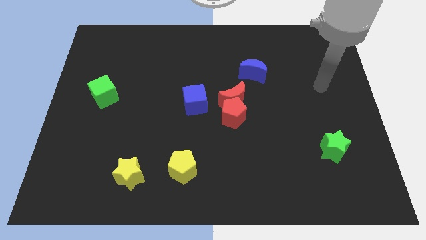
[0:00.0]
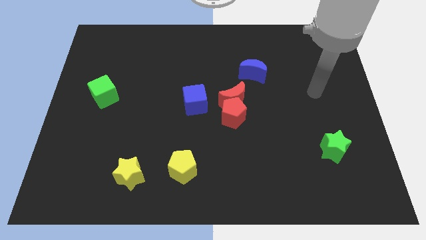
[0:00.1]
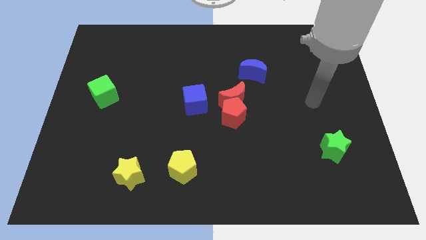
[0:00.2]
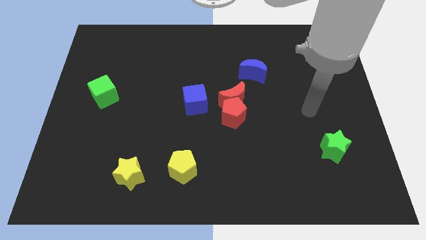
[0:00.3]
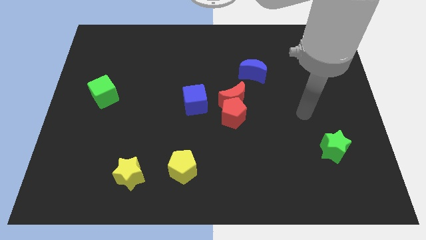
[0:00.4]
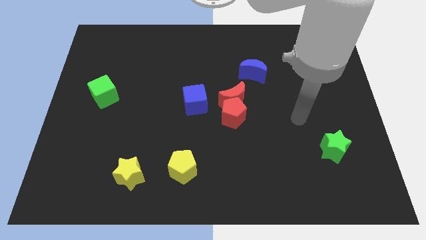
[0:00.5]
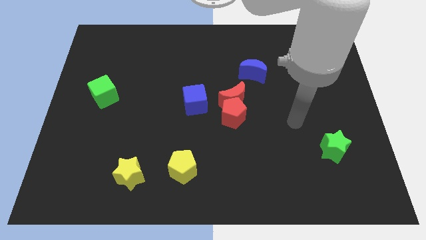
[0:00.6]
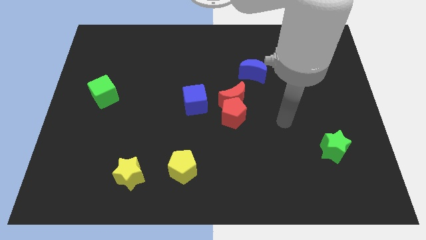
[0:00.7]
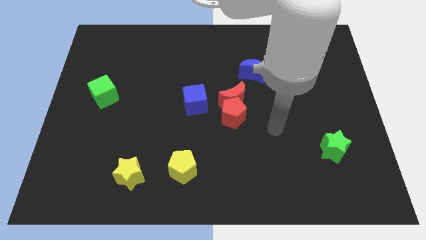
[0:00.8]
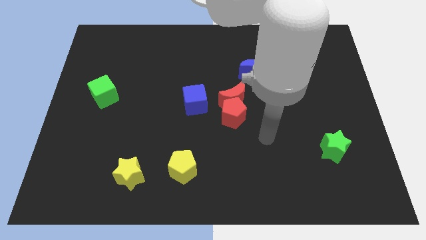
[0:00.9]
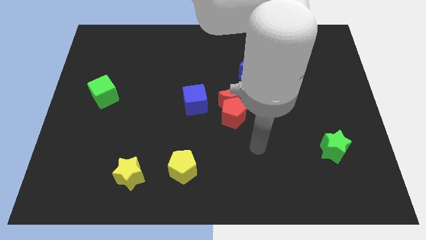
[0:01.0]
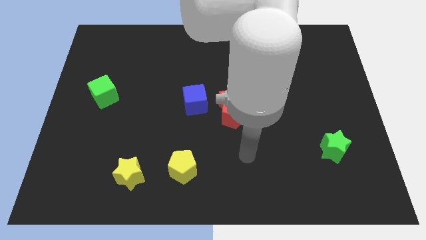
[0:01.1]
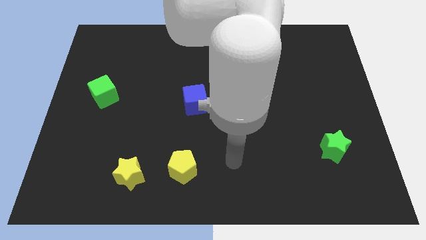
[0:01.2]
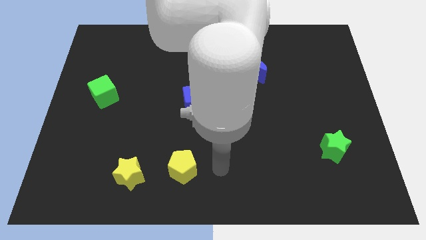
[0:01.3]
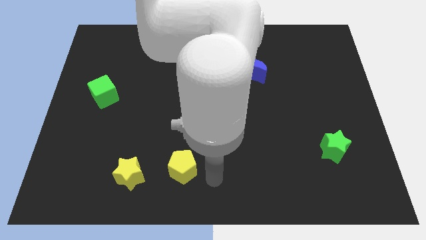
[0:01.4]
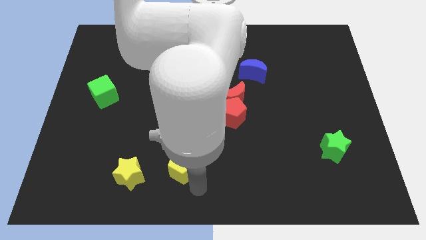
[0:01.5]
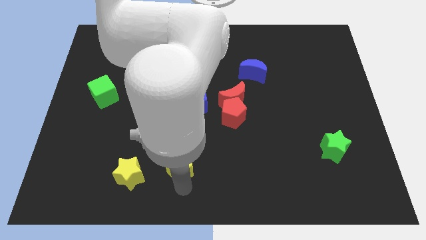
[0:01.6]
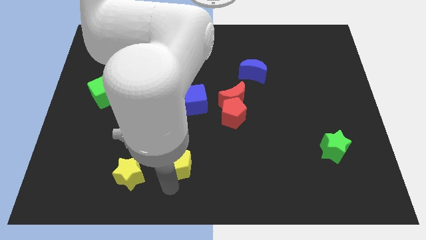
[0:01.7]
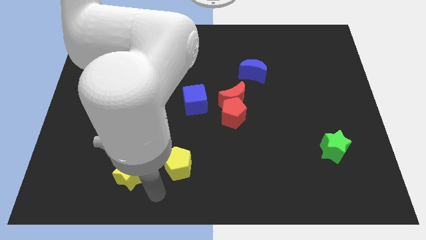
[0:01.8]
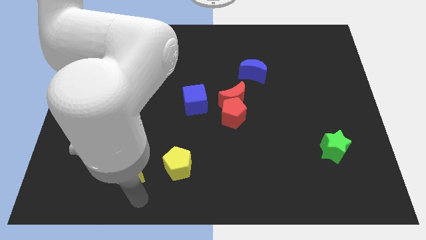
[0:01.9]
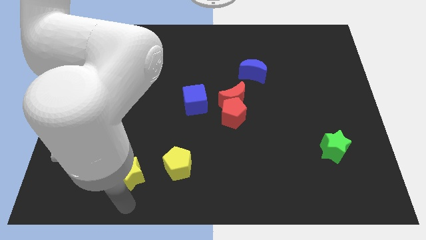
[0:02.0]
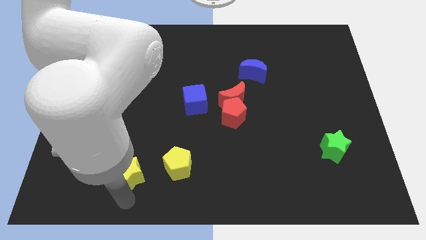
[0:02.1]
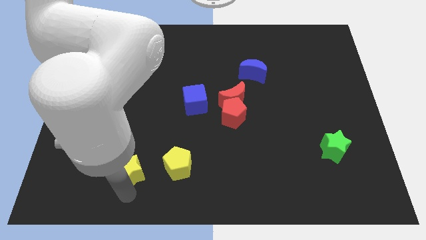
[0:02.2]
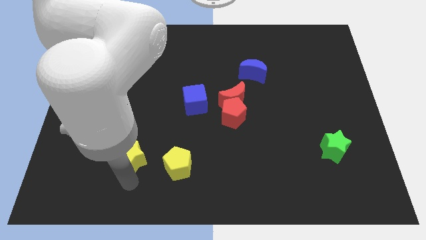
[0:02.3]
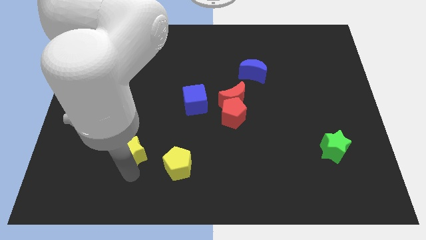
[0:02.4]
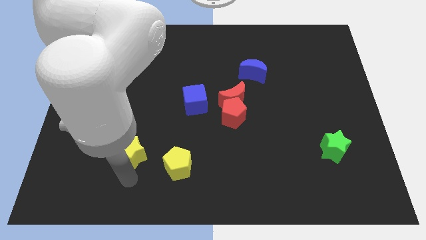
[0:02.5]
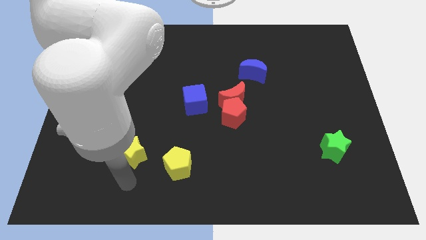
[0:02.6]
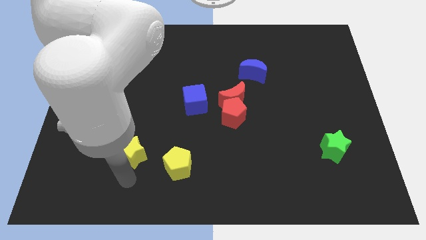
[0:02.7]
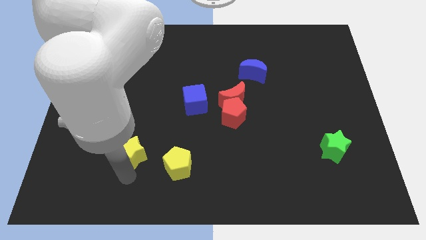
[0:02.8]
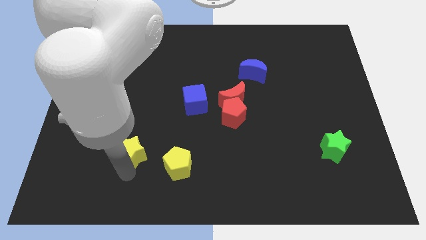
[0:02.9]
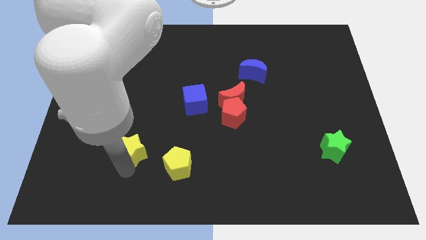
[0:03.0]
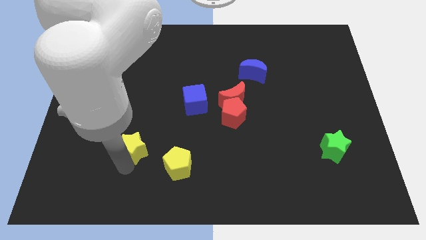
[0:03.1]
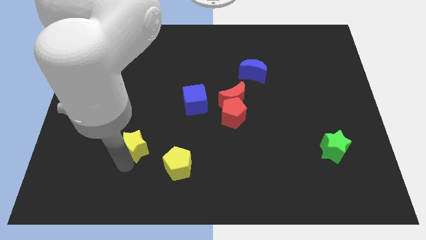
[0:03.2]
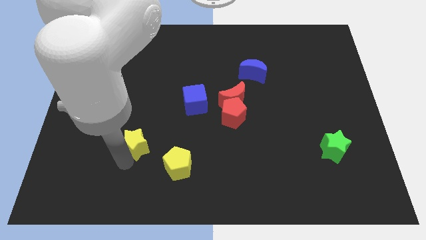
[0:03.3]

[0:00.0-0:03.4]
move the yellow star slightly upwards

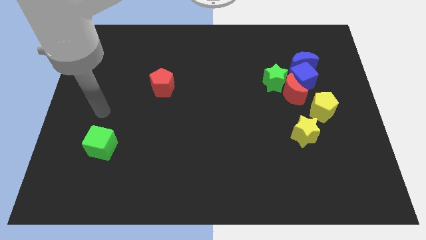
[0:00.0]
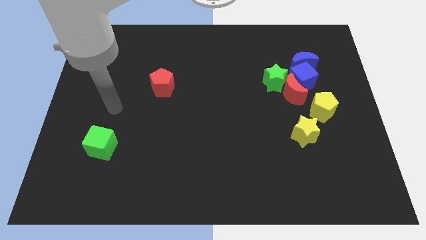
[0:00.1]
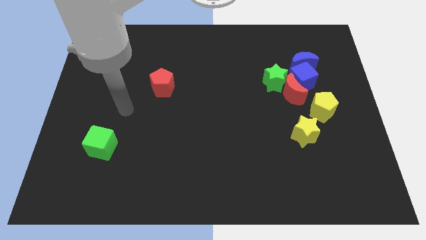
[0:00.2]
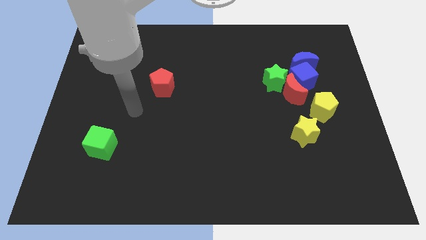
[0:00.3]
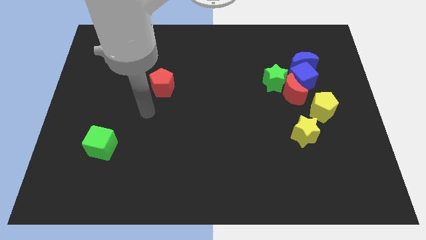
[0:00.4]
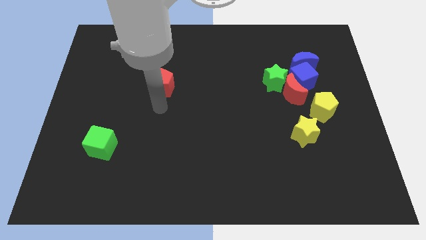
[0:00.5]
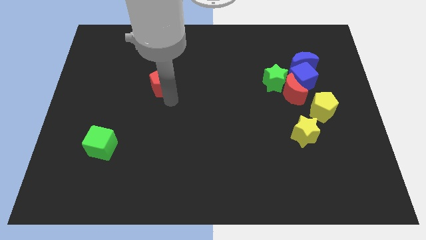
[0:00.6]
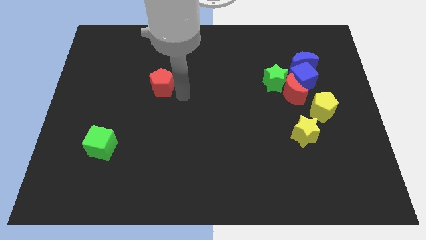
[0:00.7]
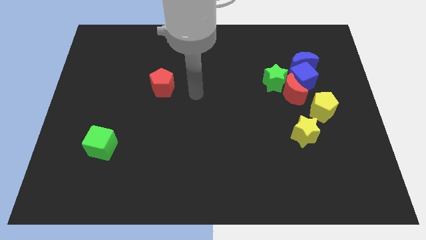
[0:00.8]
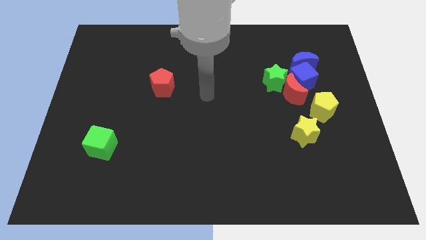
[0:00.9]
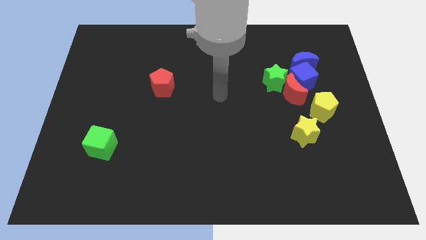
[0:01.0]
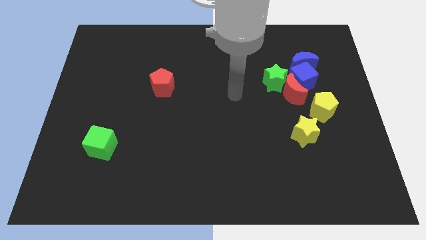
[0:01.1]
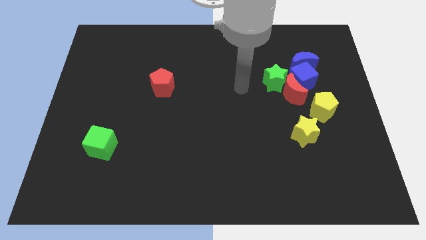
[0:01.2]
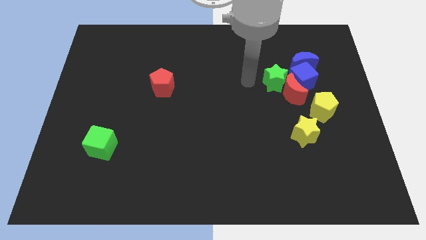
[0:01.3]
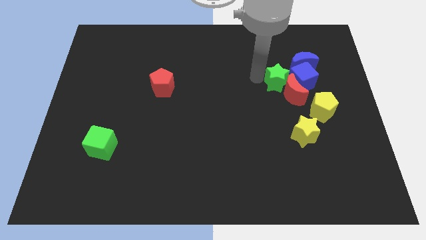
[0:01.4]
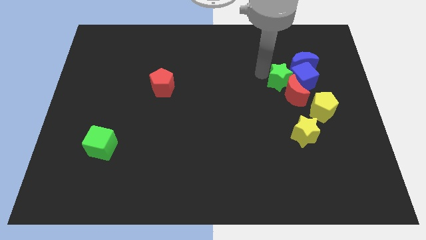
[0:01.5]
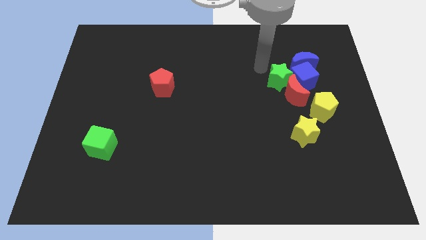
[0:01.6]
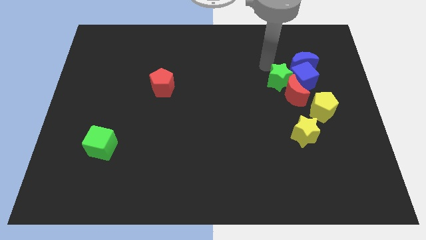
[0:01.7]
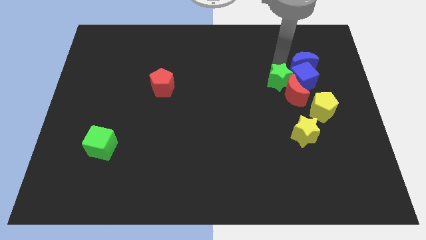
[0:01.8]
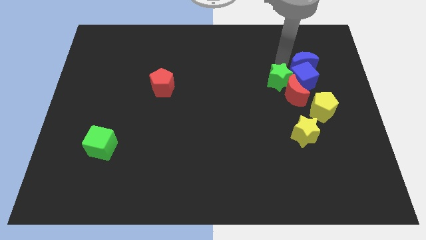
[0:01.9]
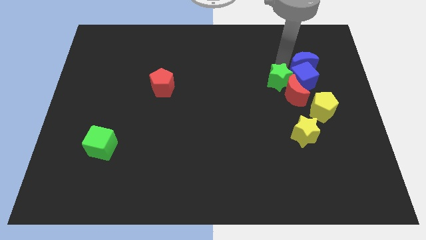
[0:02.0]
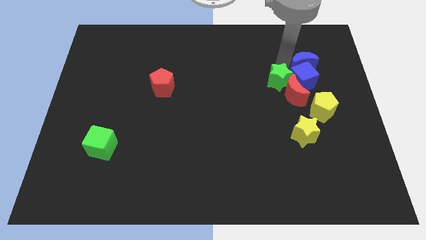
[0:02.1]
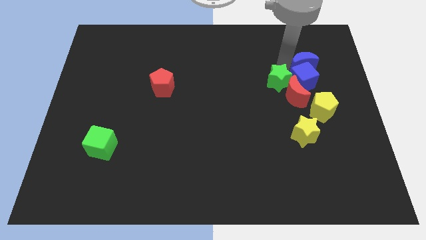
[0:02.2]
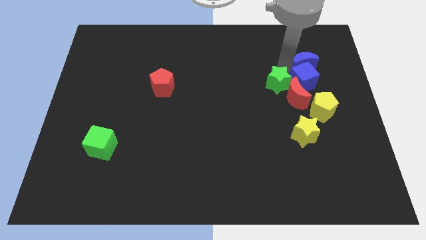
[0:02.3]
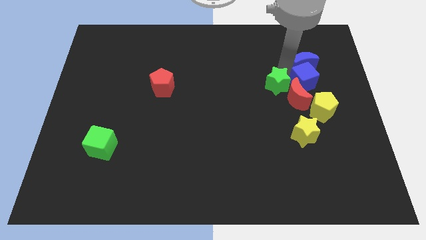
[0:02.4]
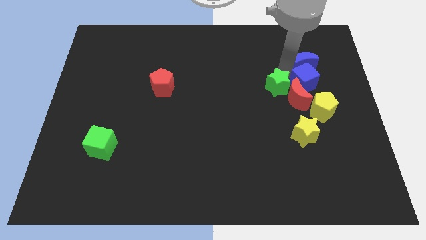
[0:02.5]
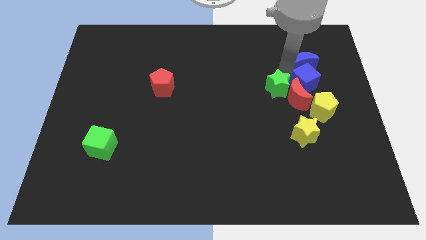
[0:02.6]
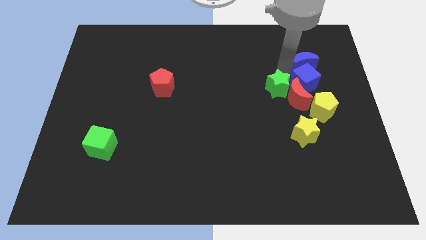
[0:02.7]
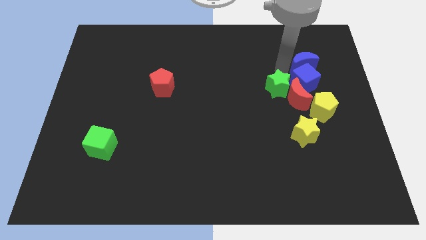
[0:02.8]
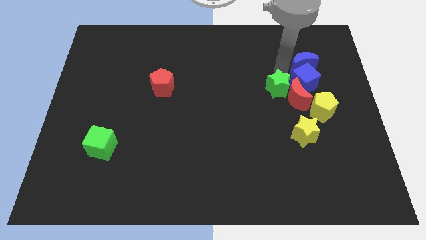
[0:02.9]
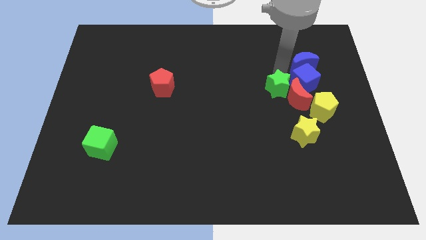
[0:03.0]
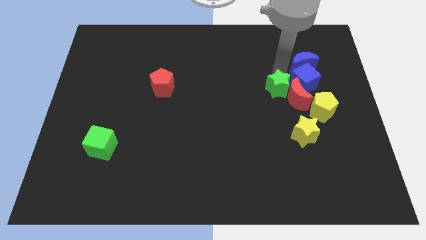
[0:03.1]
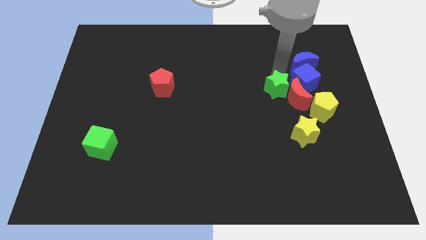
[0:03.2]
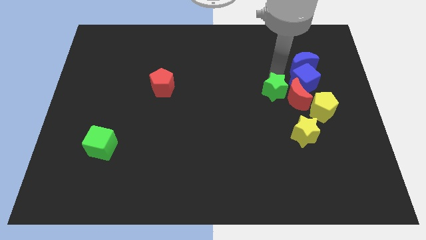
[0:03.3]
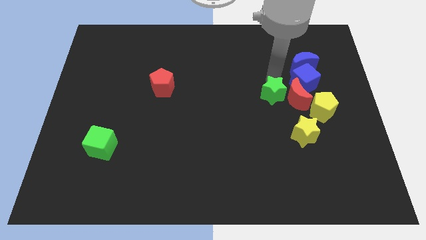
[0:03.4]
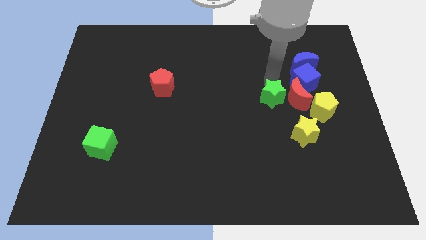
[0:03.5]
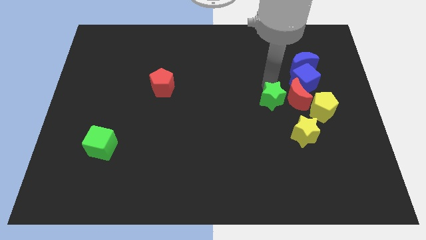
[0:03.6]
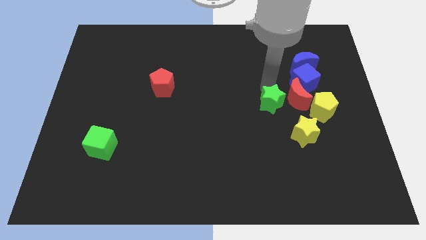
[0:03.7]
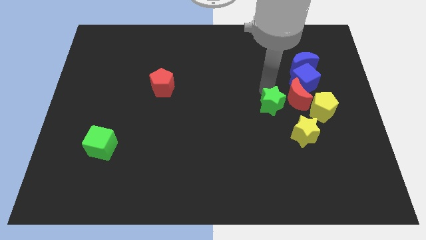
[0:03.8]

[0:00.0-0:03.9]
slightly push the green star downwards

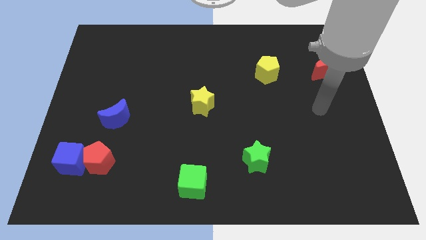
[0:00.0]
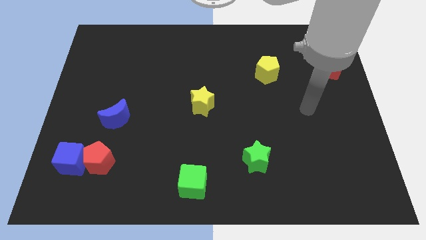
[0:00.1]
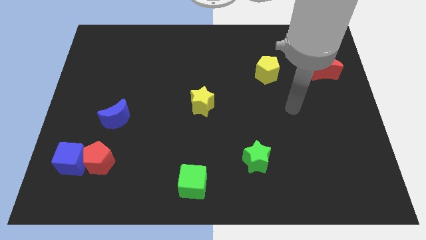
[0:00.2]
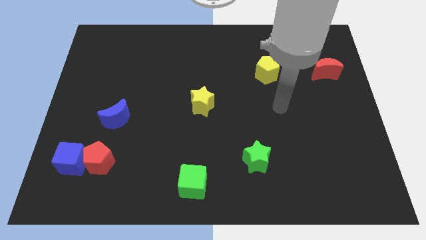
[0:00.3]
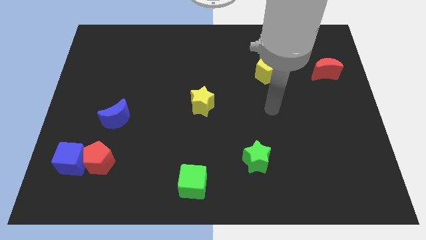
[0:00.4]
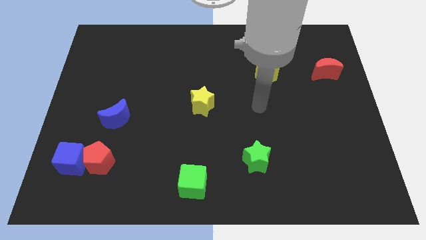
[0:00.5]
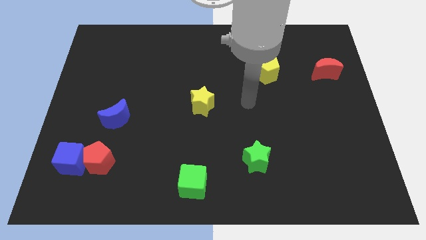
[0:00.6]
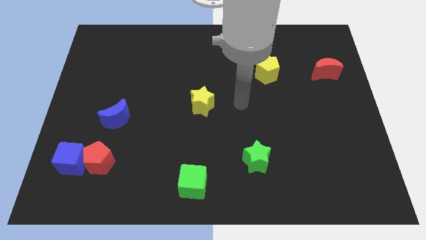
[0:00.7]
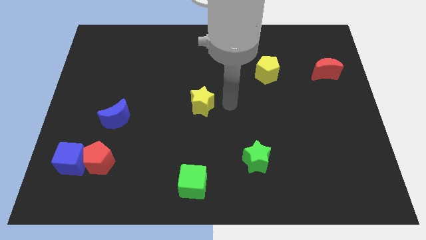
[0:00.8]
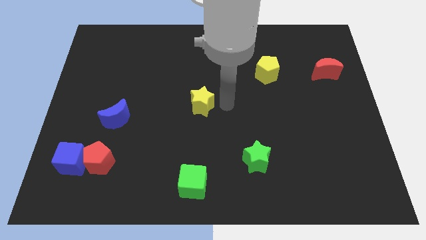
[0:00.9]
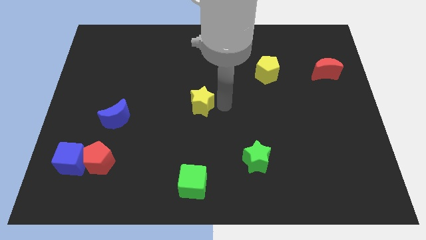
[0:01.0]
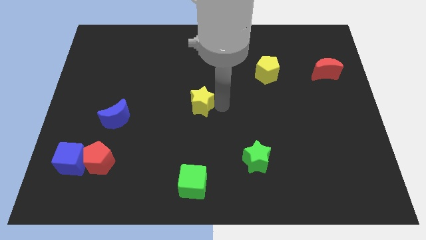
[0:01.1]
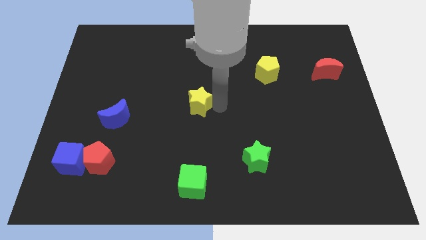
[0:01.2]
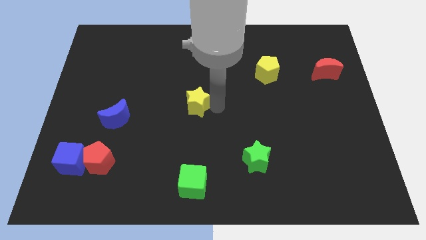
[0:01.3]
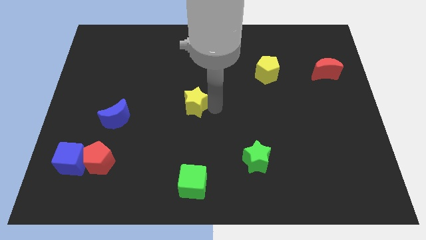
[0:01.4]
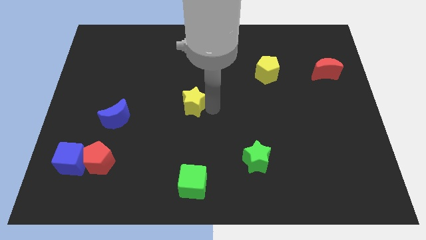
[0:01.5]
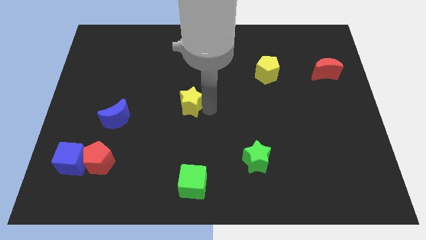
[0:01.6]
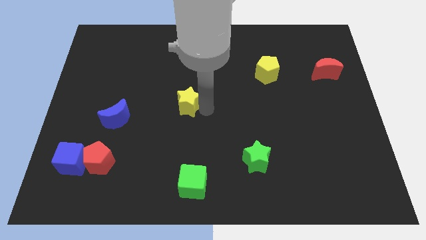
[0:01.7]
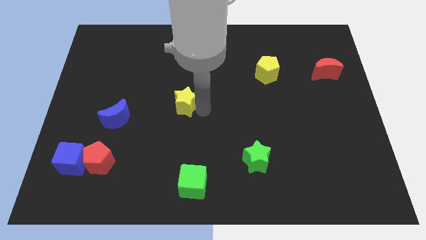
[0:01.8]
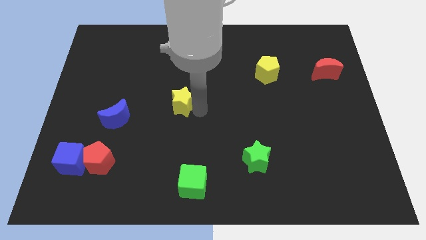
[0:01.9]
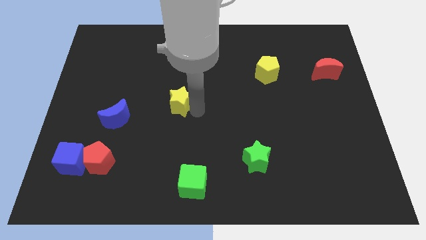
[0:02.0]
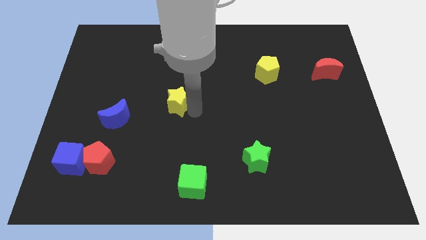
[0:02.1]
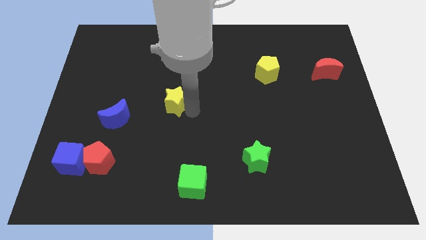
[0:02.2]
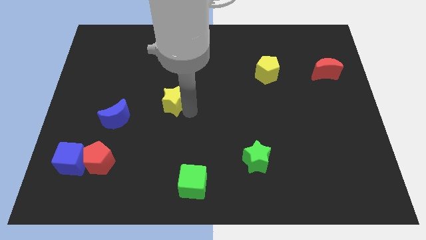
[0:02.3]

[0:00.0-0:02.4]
push the yellow star a little to the left
